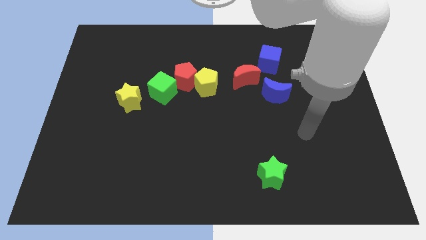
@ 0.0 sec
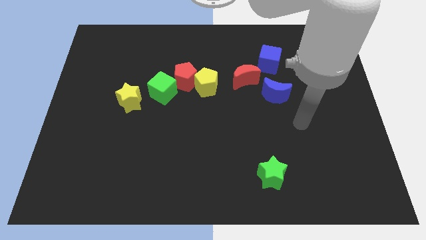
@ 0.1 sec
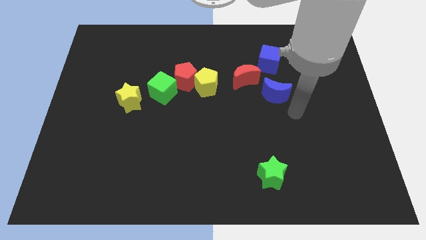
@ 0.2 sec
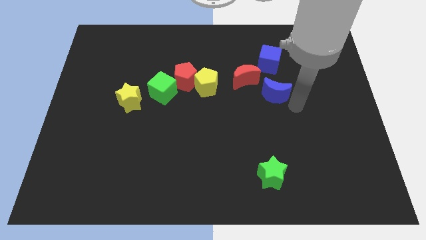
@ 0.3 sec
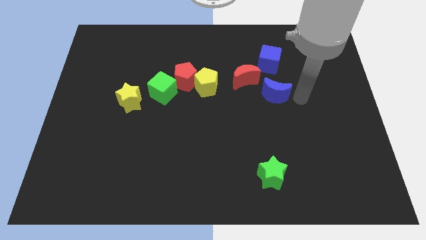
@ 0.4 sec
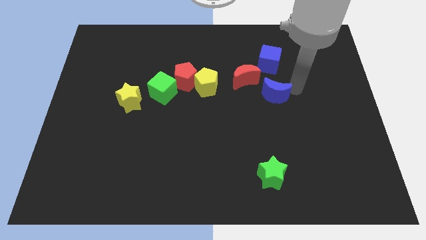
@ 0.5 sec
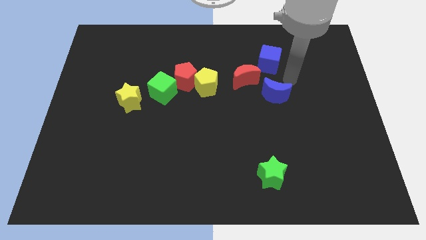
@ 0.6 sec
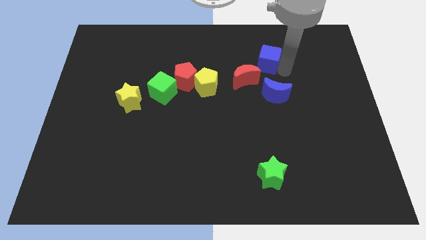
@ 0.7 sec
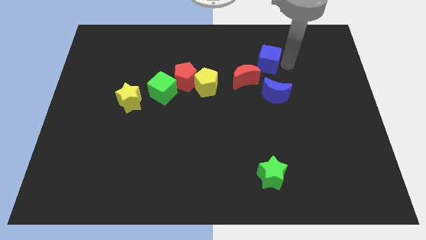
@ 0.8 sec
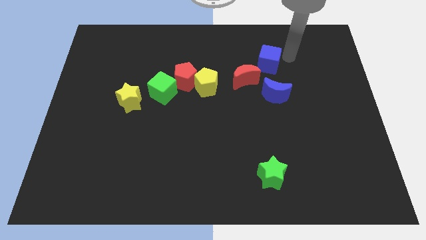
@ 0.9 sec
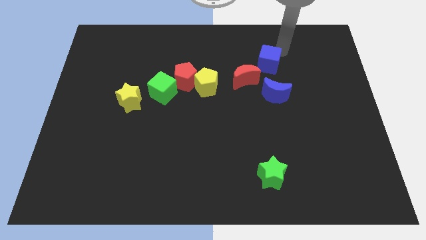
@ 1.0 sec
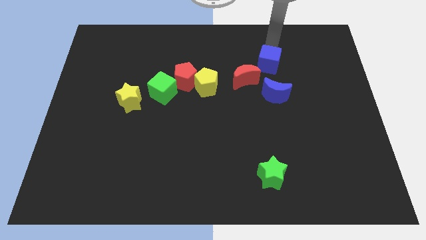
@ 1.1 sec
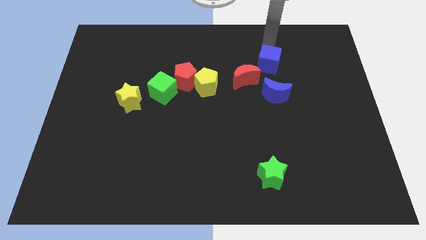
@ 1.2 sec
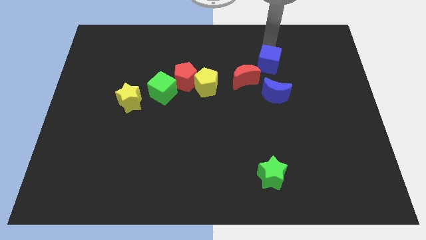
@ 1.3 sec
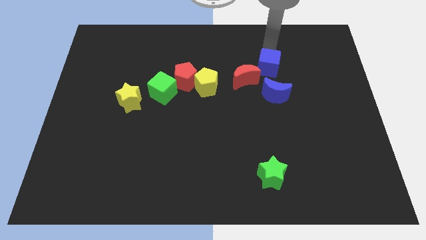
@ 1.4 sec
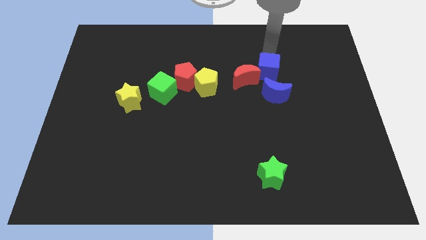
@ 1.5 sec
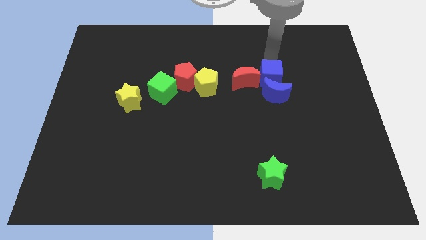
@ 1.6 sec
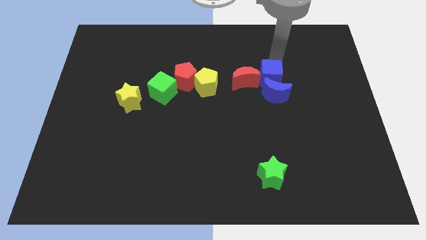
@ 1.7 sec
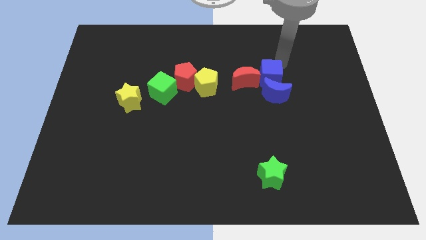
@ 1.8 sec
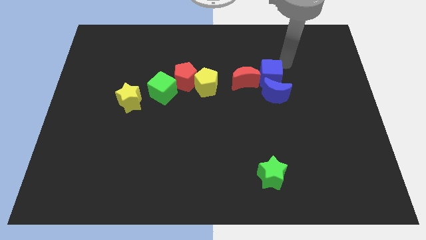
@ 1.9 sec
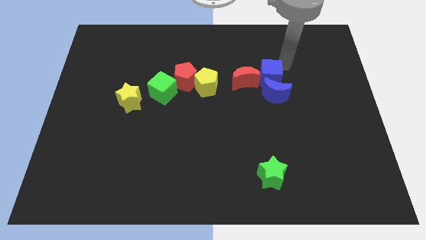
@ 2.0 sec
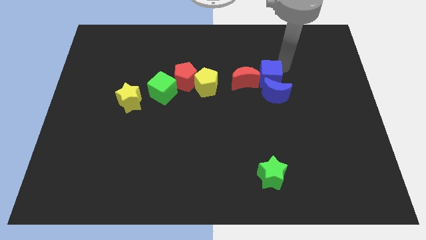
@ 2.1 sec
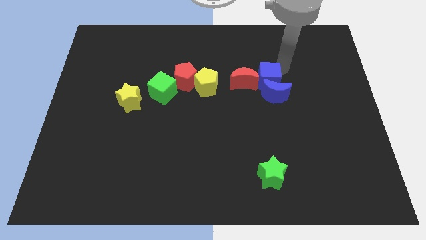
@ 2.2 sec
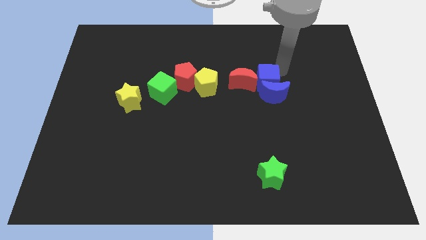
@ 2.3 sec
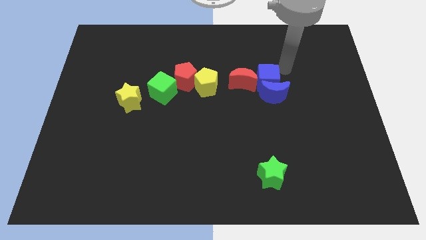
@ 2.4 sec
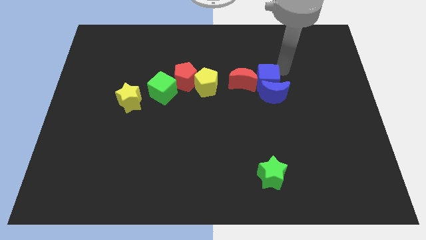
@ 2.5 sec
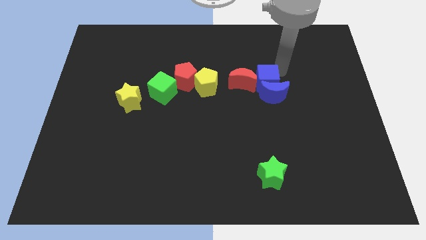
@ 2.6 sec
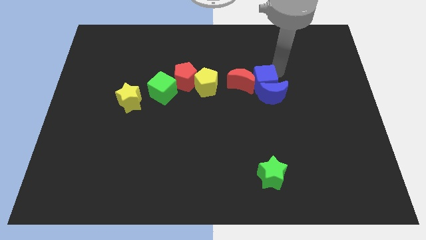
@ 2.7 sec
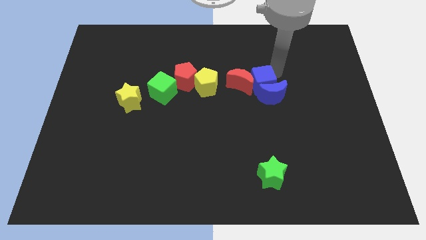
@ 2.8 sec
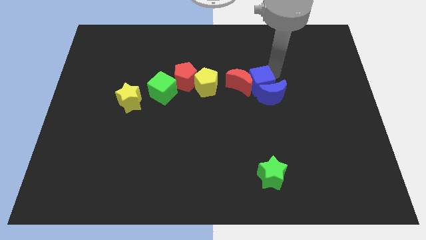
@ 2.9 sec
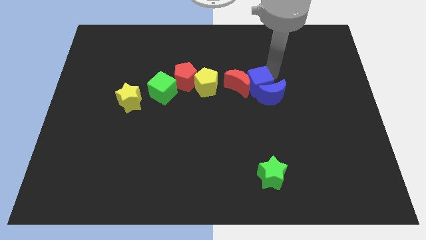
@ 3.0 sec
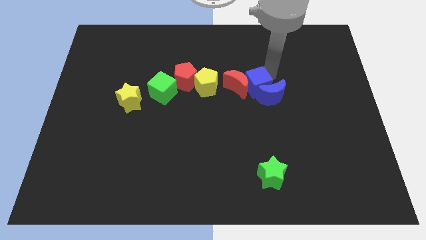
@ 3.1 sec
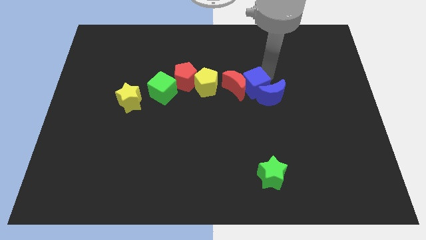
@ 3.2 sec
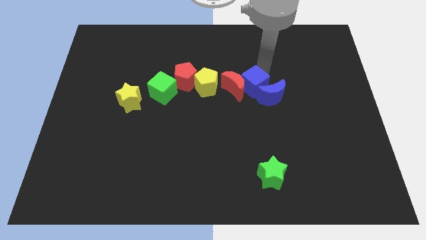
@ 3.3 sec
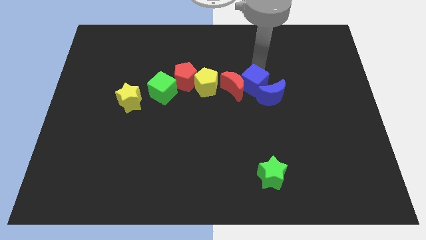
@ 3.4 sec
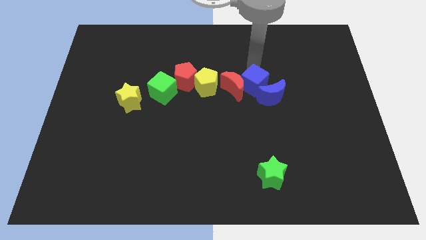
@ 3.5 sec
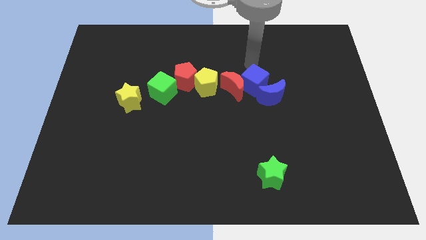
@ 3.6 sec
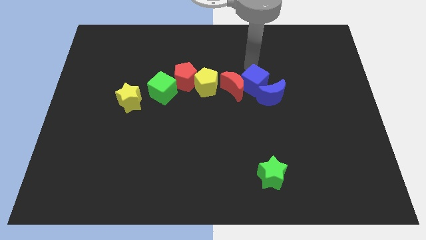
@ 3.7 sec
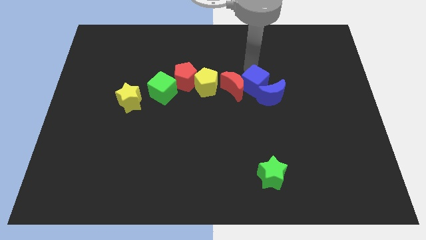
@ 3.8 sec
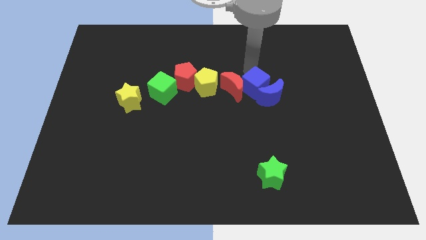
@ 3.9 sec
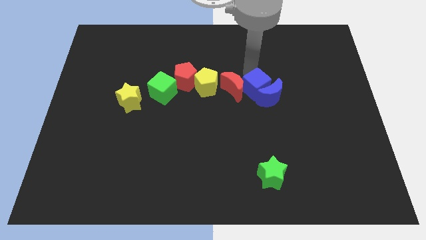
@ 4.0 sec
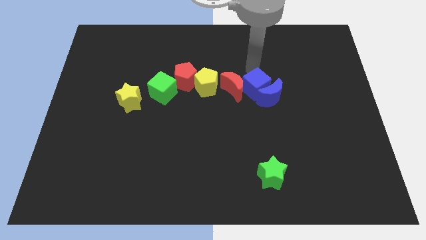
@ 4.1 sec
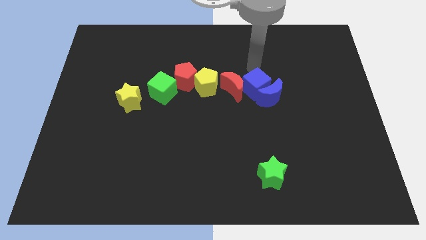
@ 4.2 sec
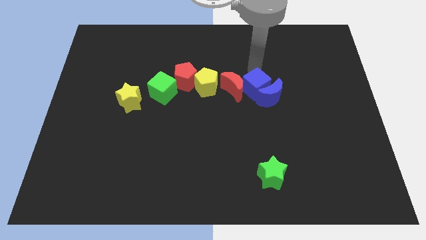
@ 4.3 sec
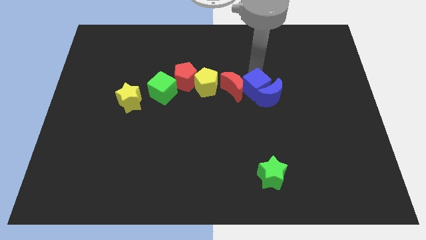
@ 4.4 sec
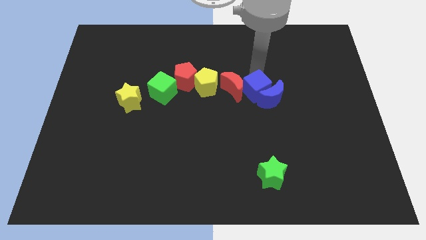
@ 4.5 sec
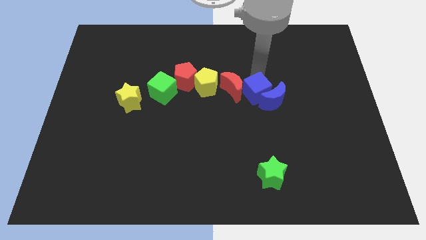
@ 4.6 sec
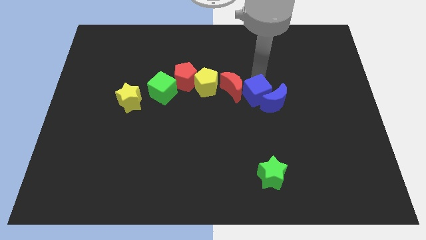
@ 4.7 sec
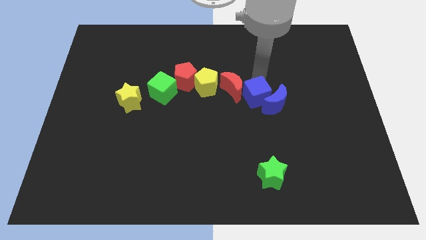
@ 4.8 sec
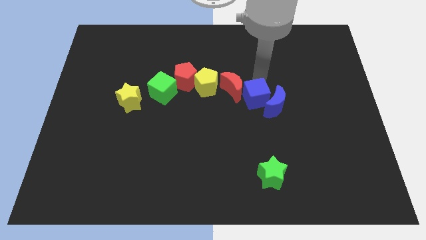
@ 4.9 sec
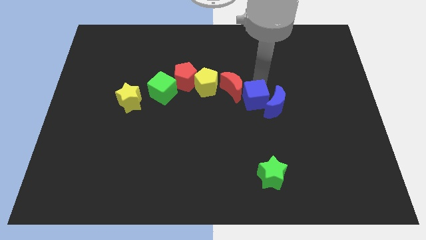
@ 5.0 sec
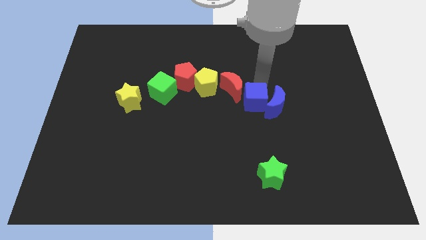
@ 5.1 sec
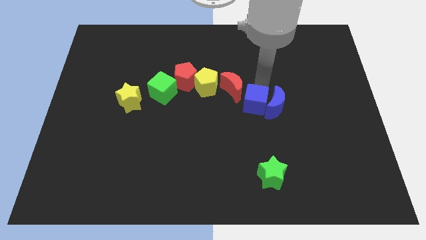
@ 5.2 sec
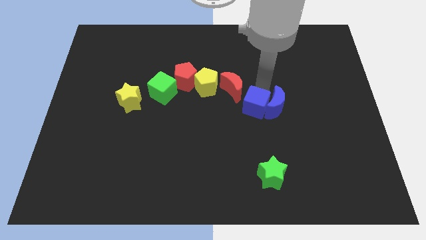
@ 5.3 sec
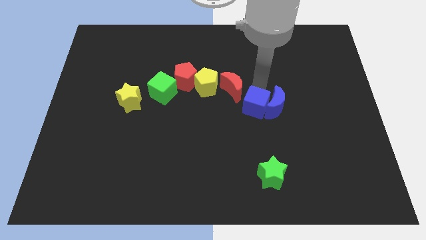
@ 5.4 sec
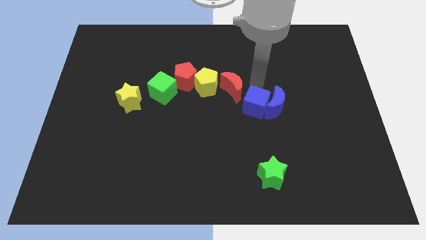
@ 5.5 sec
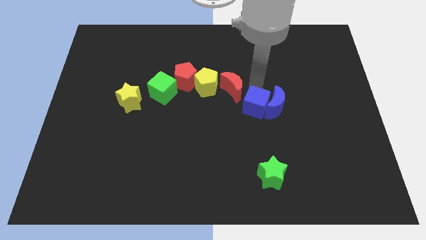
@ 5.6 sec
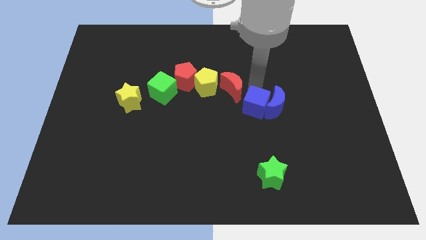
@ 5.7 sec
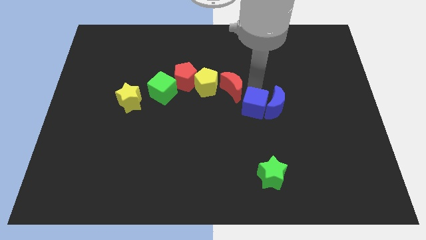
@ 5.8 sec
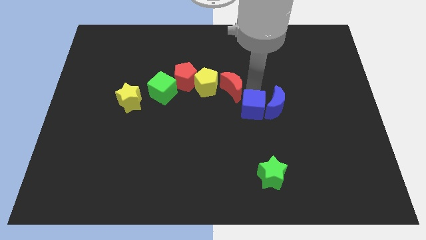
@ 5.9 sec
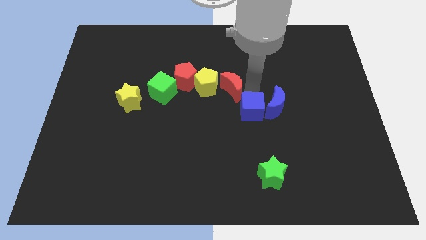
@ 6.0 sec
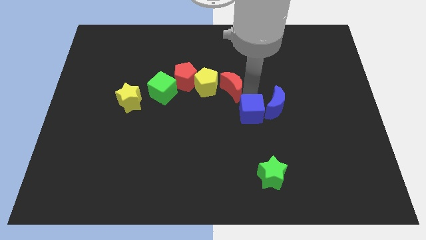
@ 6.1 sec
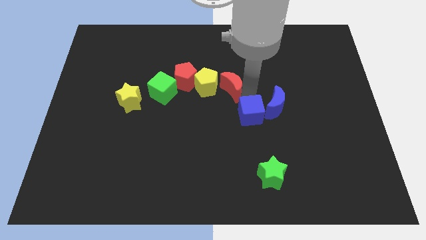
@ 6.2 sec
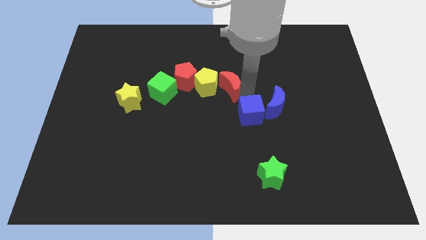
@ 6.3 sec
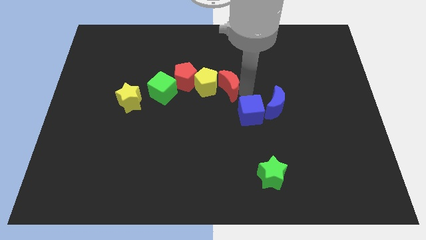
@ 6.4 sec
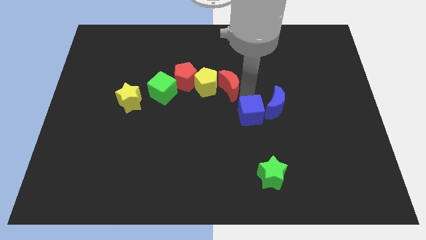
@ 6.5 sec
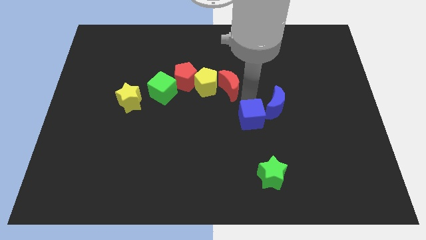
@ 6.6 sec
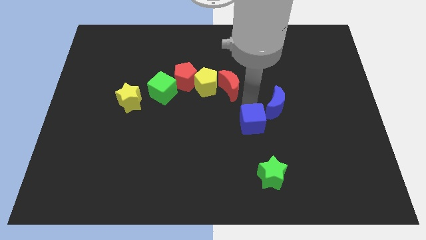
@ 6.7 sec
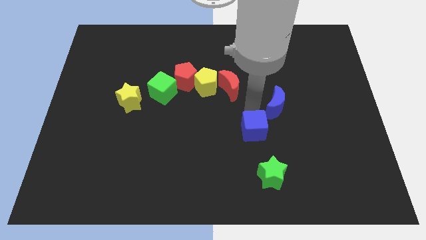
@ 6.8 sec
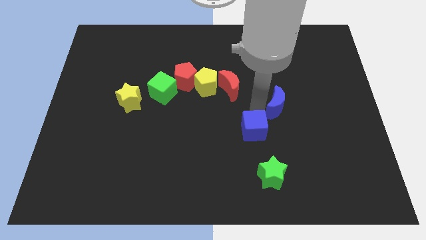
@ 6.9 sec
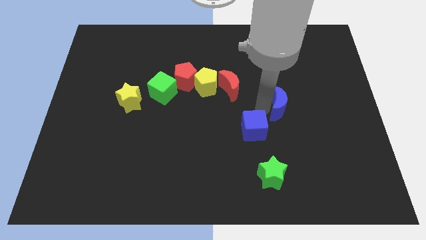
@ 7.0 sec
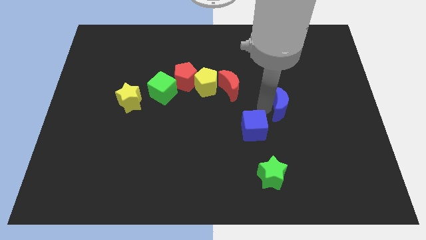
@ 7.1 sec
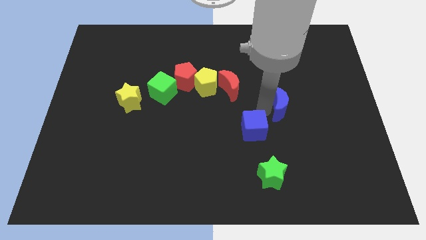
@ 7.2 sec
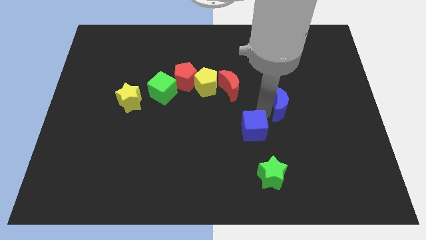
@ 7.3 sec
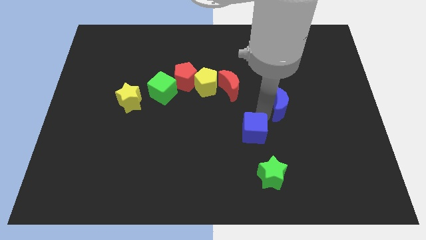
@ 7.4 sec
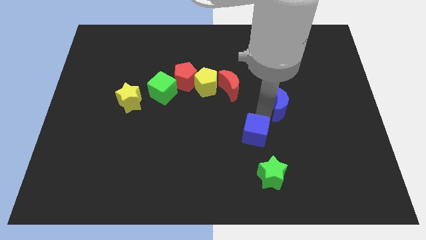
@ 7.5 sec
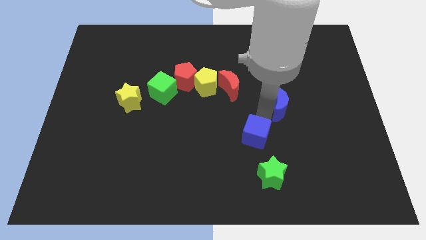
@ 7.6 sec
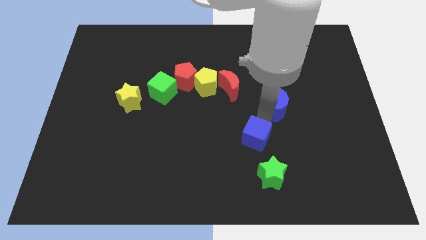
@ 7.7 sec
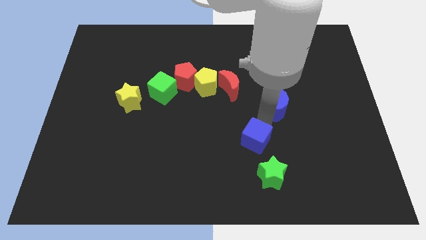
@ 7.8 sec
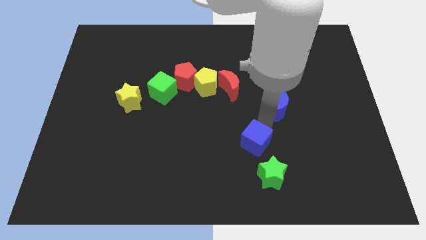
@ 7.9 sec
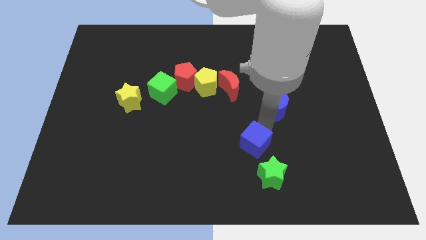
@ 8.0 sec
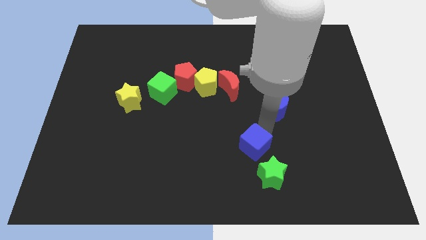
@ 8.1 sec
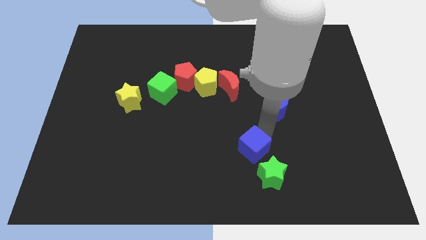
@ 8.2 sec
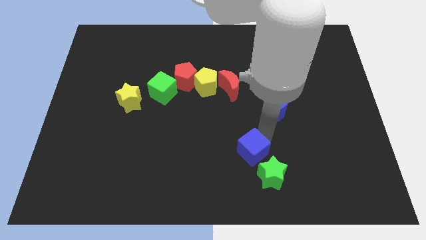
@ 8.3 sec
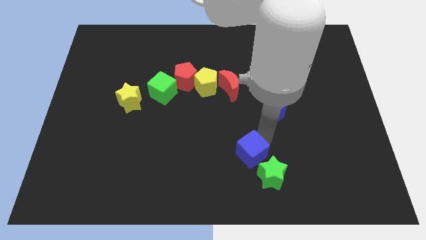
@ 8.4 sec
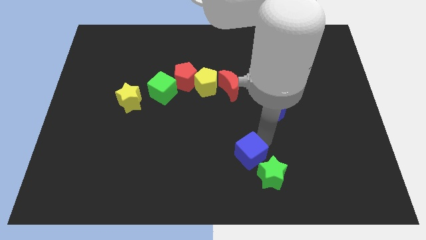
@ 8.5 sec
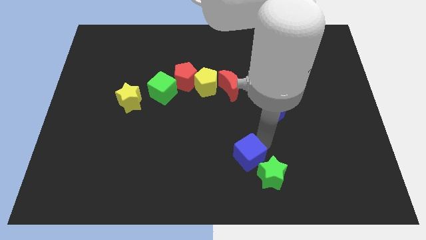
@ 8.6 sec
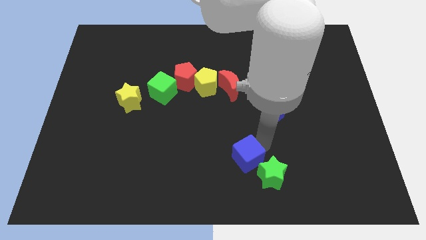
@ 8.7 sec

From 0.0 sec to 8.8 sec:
push the blue cube just left of the green star
